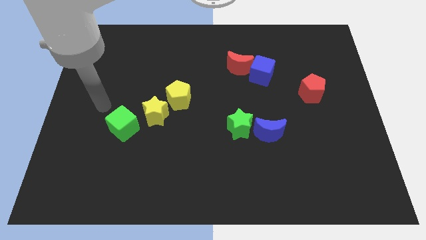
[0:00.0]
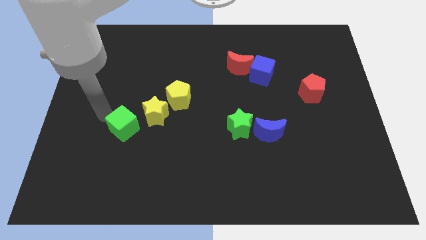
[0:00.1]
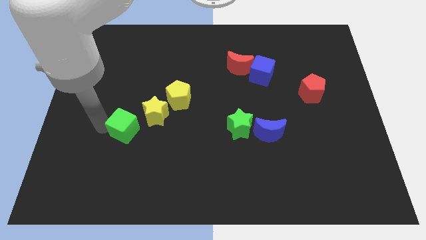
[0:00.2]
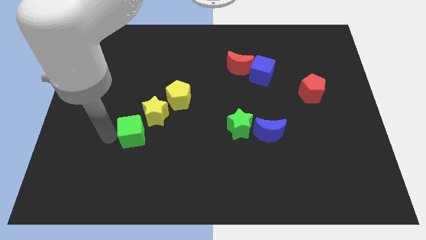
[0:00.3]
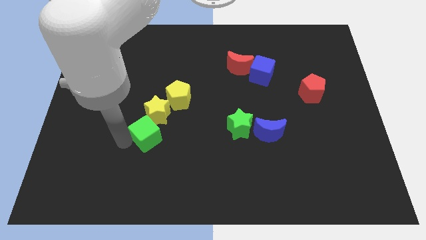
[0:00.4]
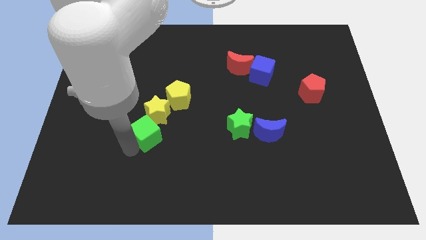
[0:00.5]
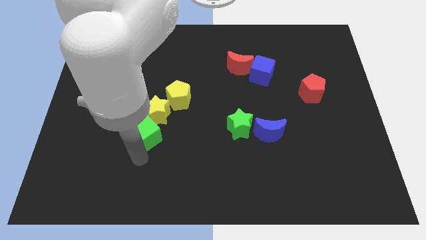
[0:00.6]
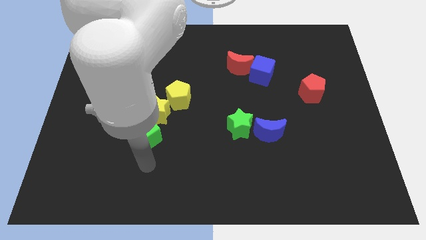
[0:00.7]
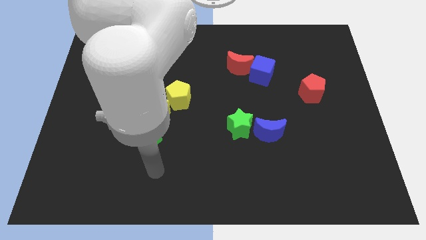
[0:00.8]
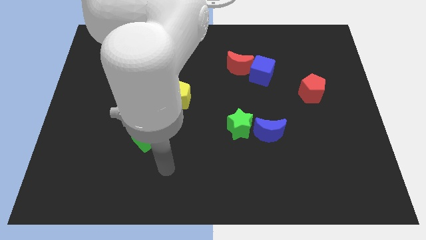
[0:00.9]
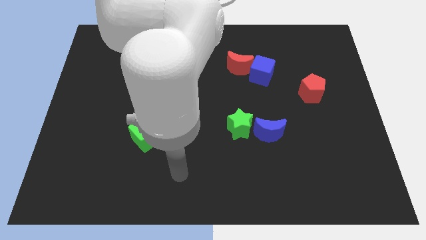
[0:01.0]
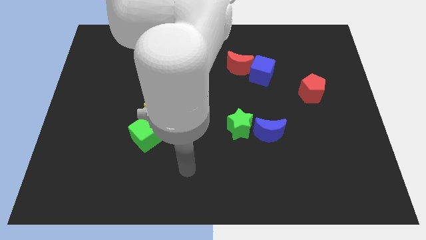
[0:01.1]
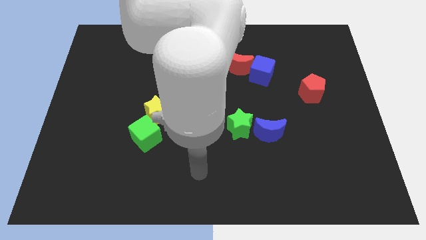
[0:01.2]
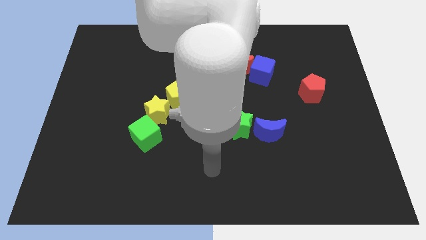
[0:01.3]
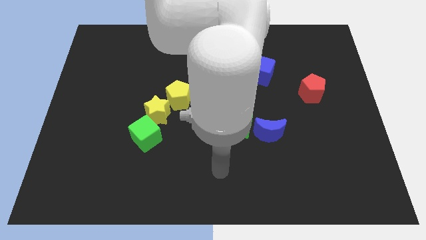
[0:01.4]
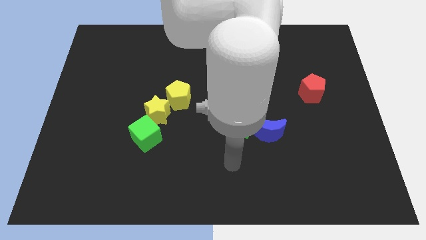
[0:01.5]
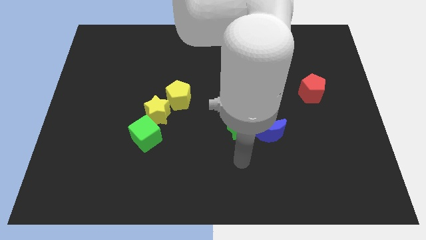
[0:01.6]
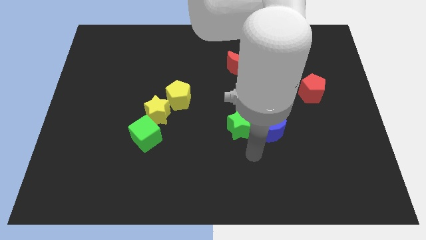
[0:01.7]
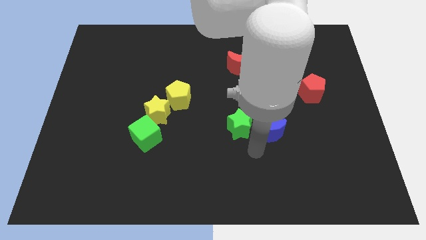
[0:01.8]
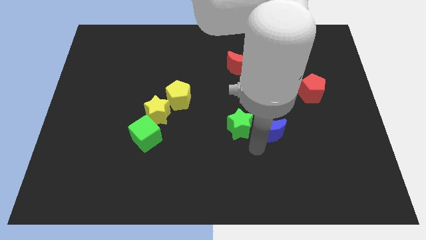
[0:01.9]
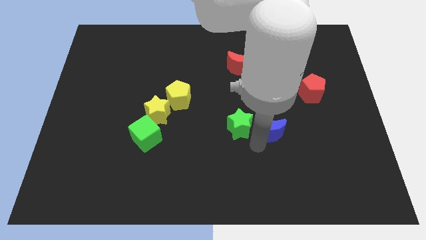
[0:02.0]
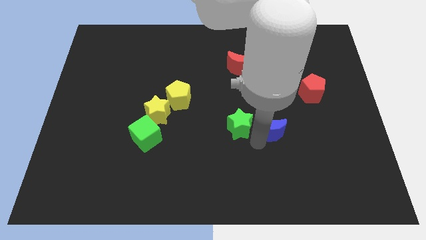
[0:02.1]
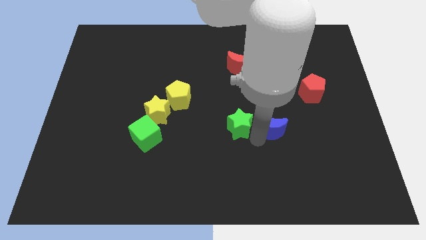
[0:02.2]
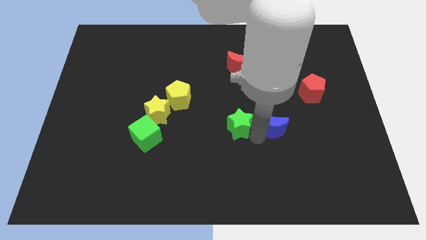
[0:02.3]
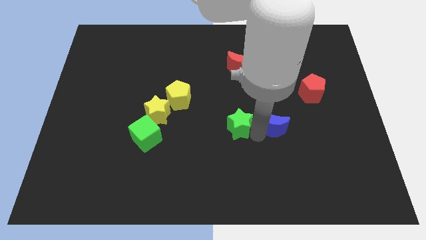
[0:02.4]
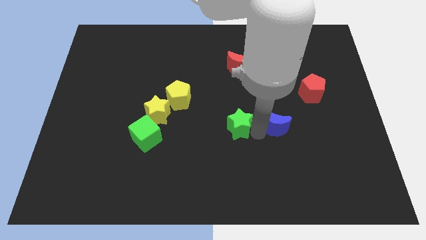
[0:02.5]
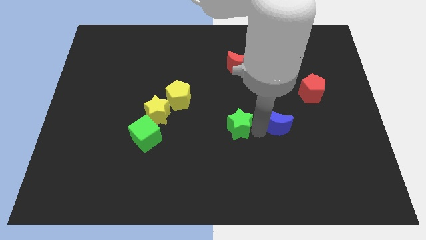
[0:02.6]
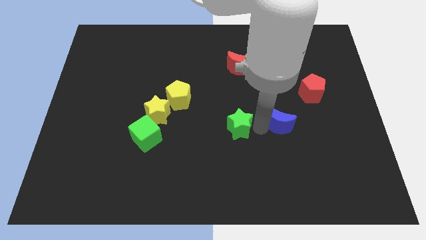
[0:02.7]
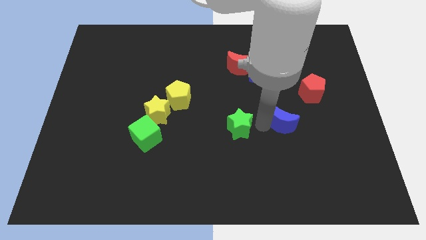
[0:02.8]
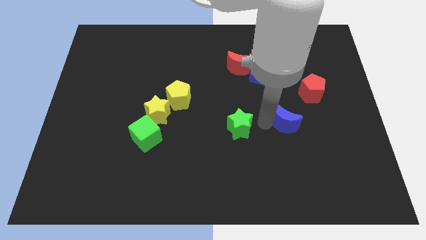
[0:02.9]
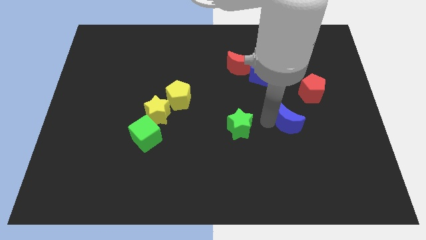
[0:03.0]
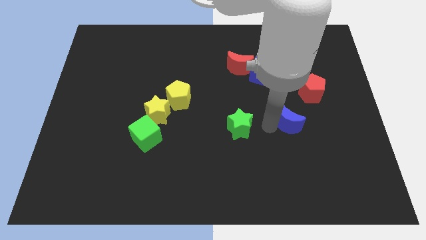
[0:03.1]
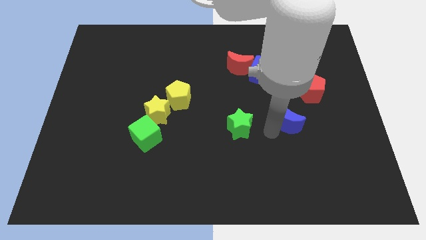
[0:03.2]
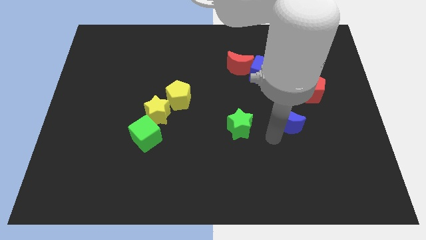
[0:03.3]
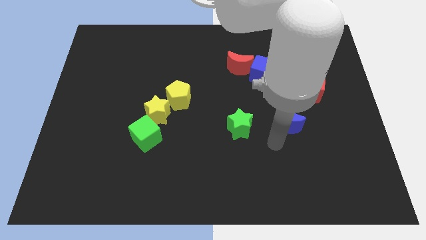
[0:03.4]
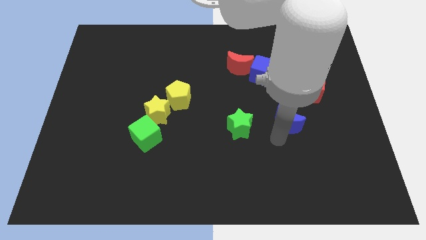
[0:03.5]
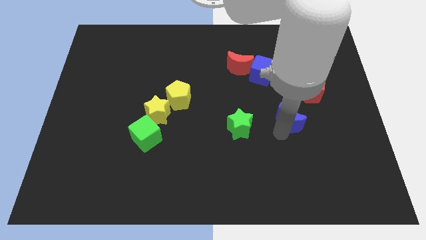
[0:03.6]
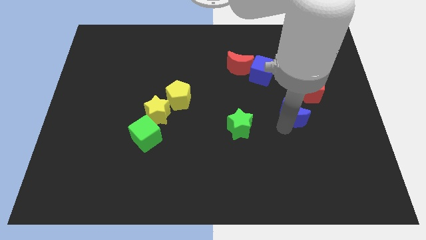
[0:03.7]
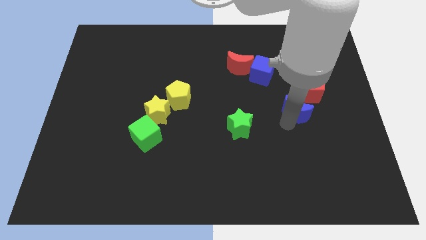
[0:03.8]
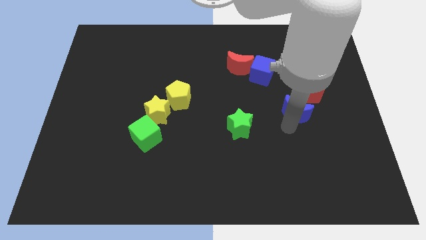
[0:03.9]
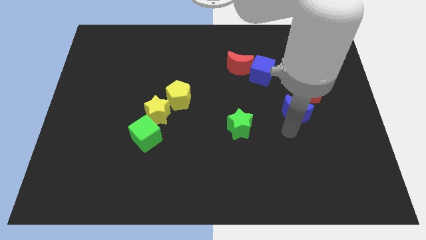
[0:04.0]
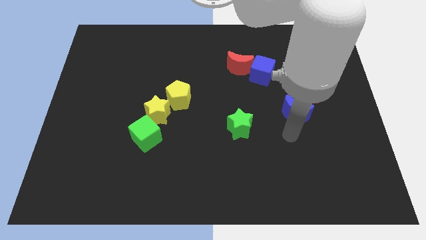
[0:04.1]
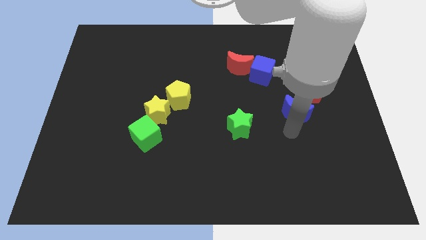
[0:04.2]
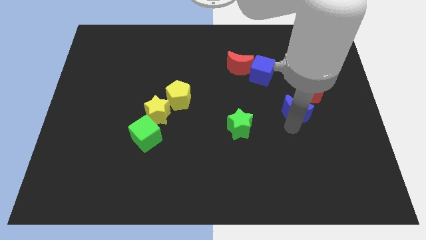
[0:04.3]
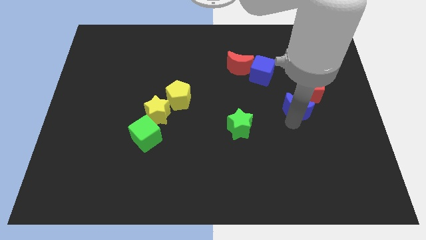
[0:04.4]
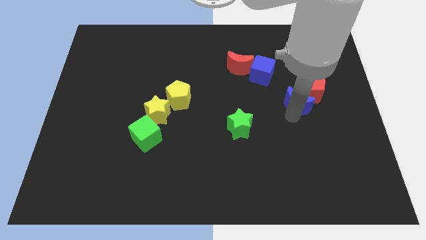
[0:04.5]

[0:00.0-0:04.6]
push the blue moon close to the red pentagon

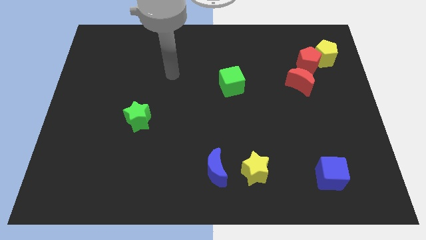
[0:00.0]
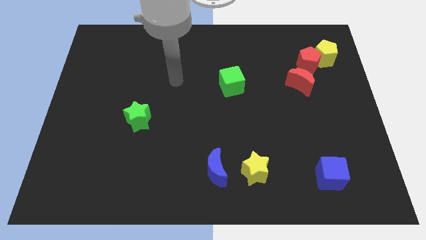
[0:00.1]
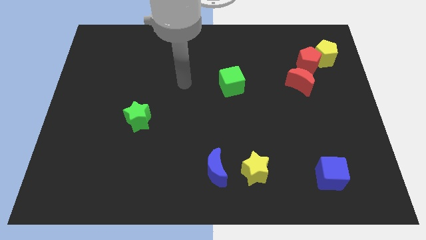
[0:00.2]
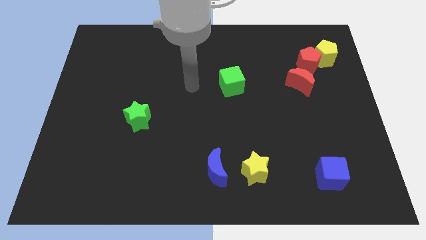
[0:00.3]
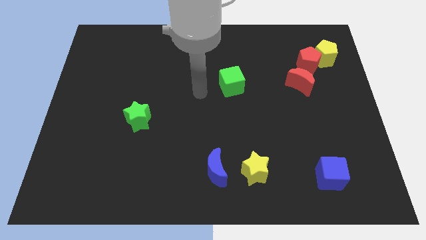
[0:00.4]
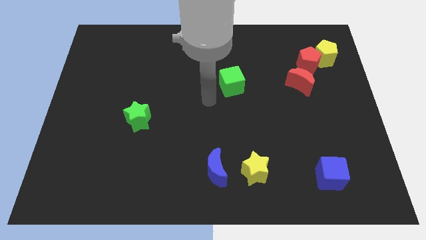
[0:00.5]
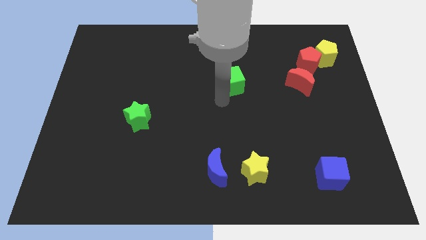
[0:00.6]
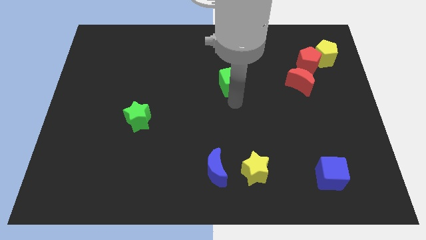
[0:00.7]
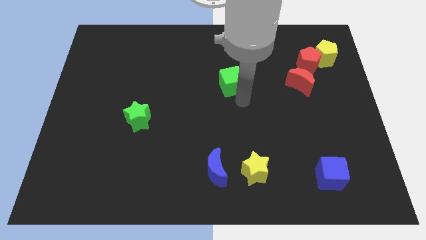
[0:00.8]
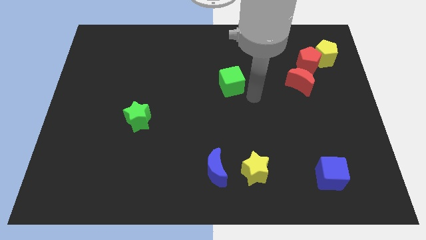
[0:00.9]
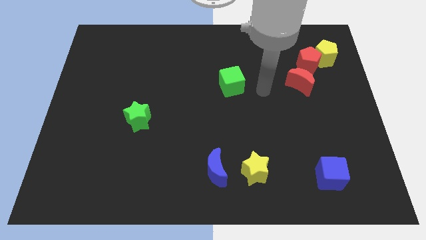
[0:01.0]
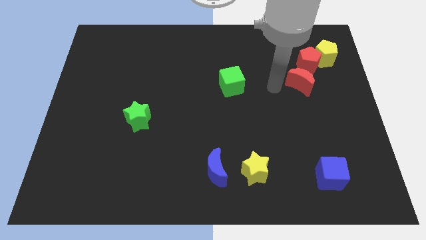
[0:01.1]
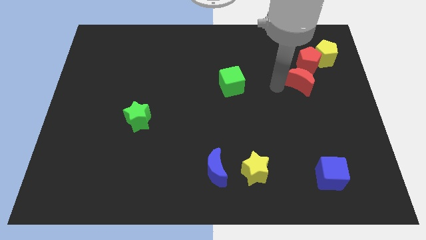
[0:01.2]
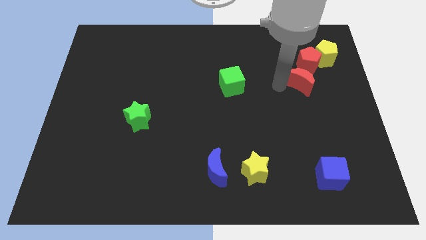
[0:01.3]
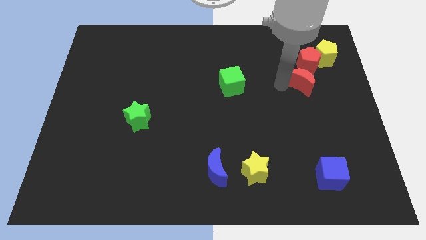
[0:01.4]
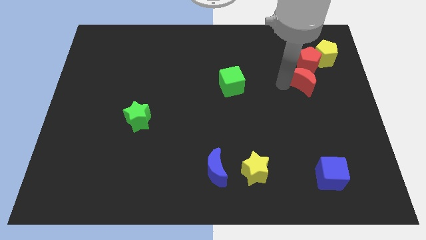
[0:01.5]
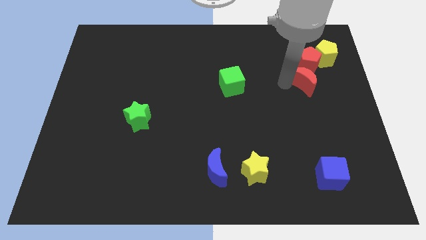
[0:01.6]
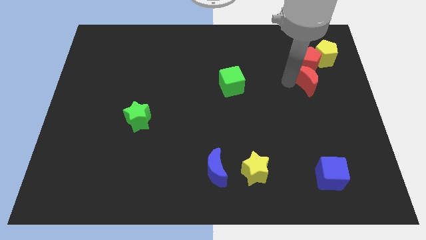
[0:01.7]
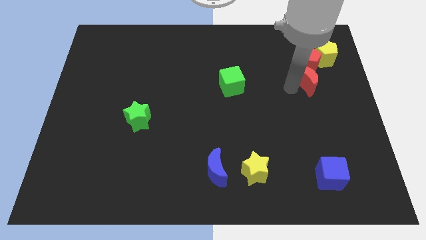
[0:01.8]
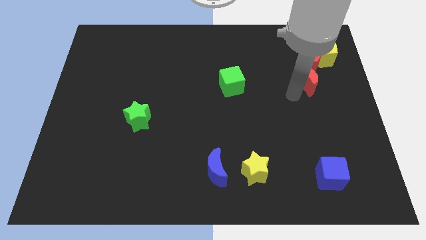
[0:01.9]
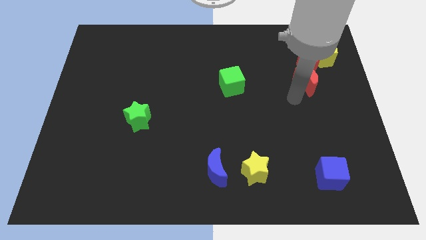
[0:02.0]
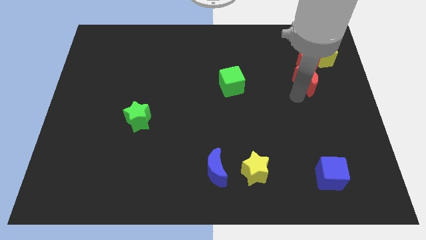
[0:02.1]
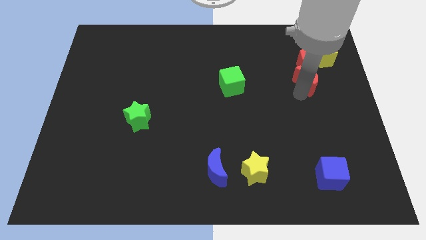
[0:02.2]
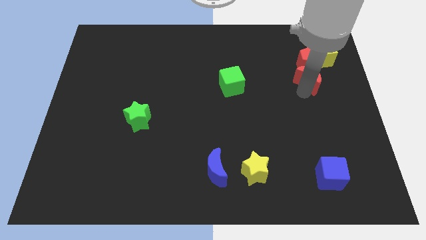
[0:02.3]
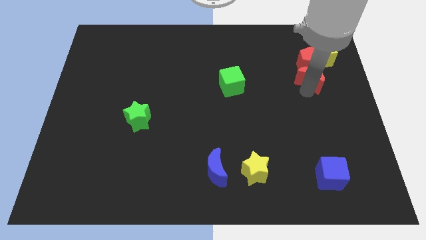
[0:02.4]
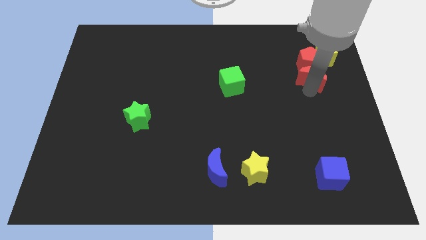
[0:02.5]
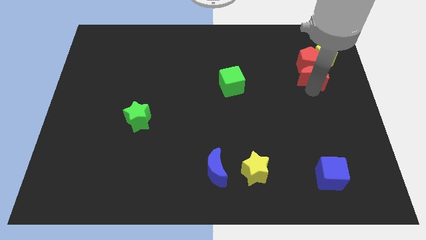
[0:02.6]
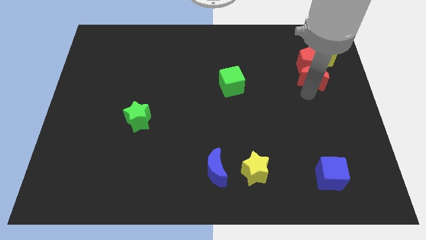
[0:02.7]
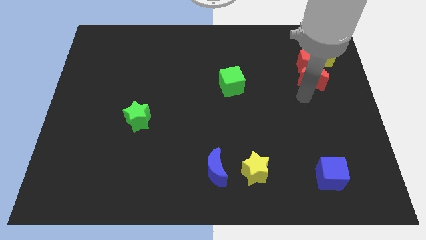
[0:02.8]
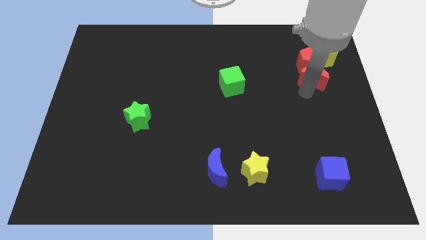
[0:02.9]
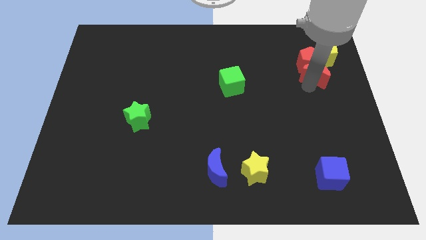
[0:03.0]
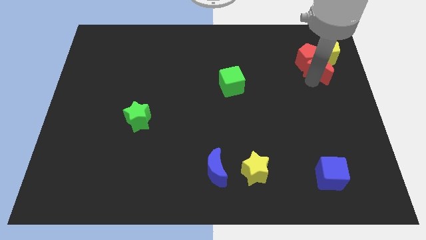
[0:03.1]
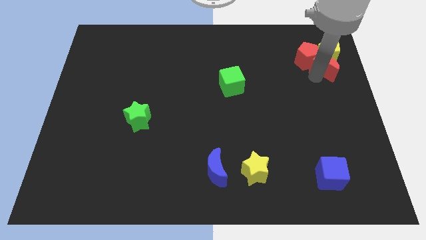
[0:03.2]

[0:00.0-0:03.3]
slide the red moon close to the yellow pentagon

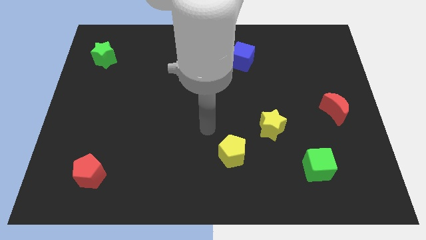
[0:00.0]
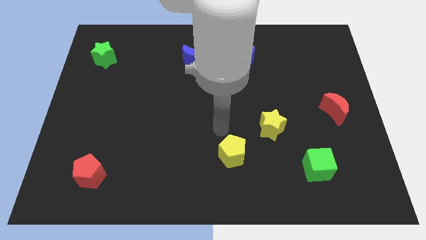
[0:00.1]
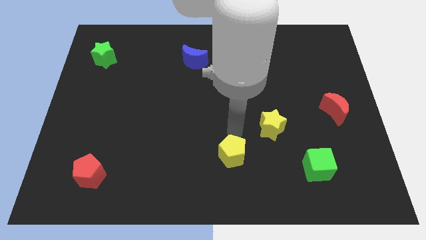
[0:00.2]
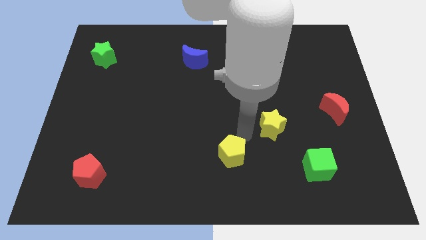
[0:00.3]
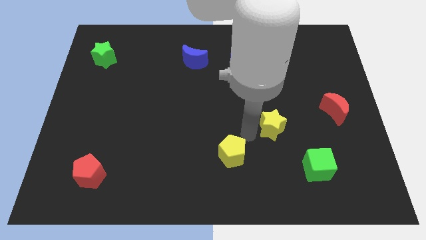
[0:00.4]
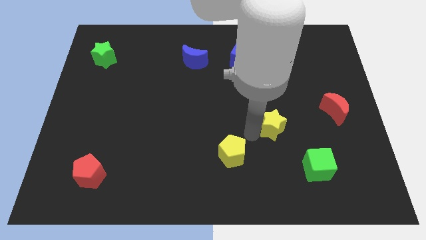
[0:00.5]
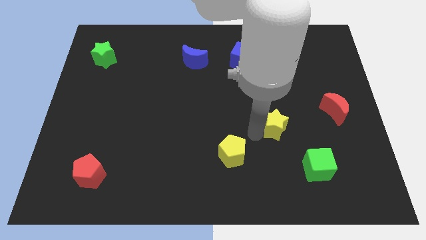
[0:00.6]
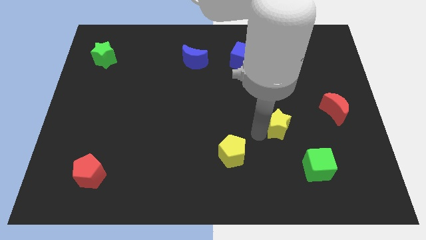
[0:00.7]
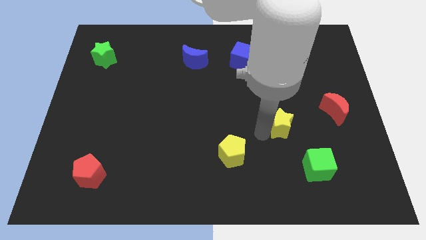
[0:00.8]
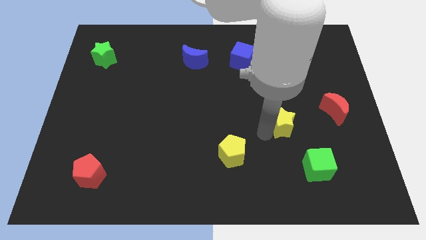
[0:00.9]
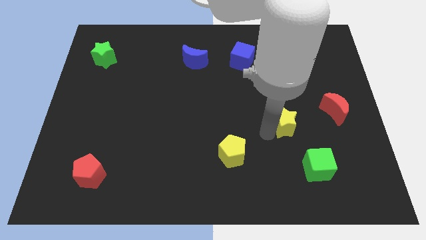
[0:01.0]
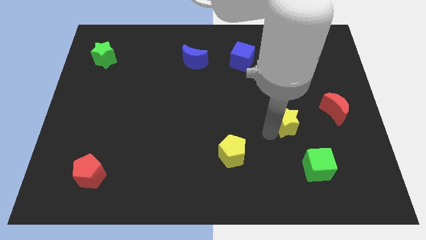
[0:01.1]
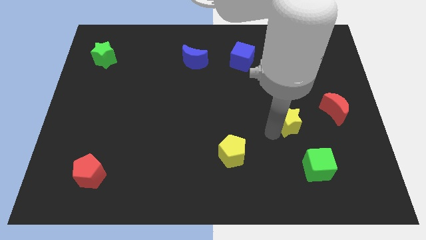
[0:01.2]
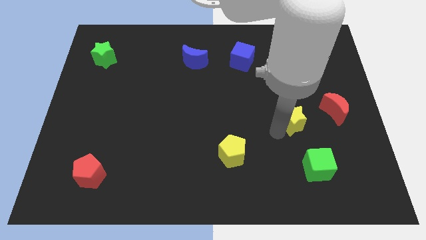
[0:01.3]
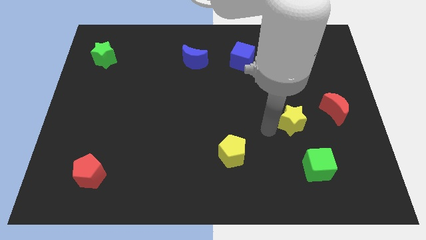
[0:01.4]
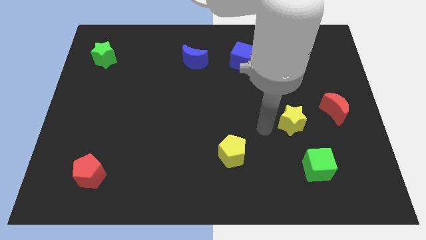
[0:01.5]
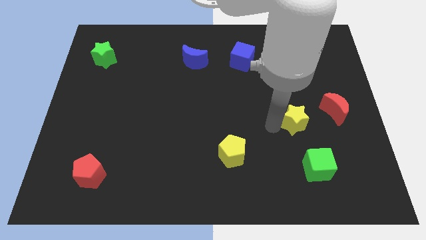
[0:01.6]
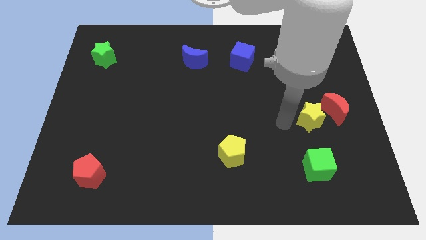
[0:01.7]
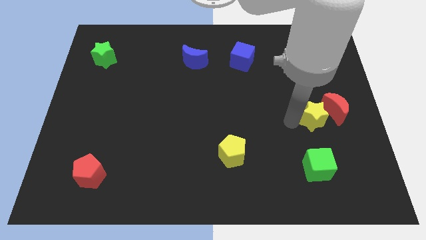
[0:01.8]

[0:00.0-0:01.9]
move the yellow star to the red moon
